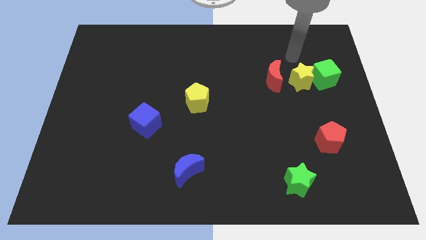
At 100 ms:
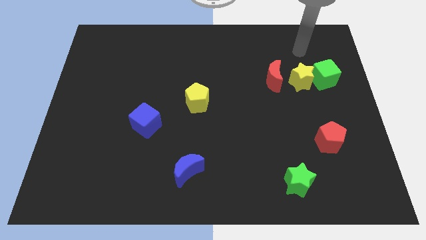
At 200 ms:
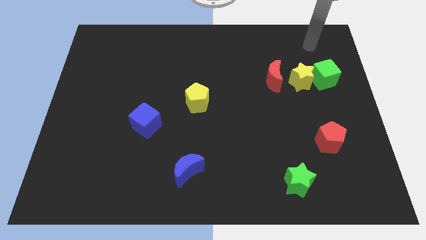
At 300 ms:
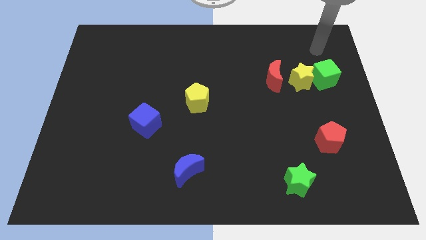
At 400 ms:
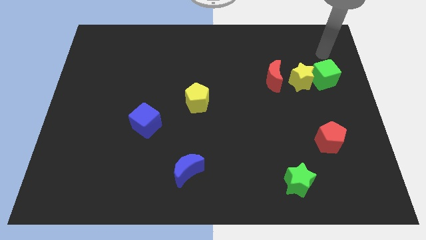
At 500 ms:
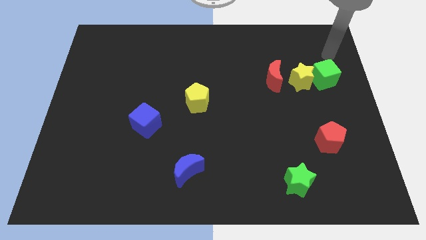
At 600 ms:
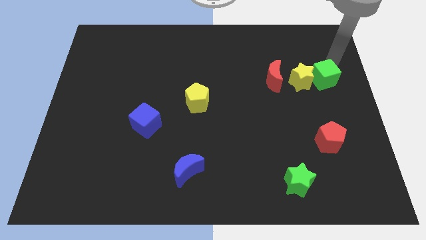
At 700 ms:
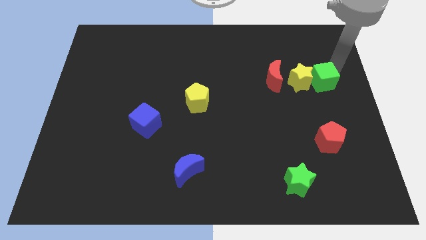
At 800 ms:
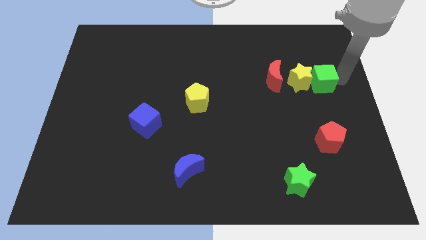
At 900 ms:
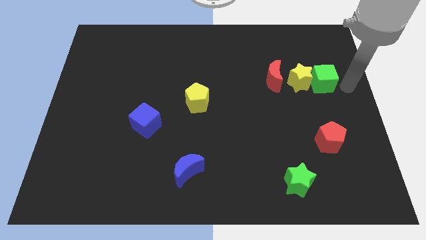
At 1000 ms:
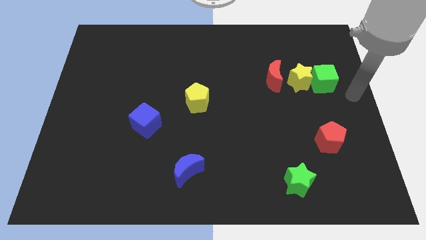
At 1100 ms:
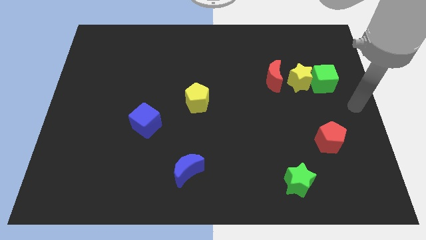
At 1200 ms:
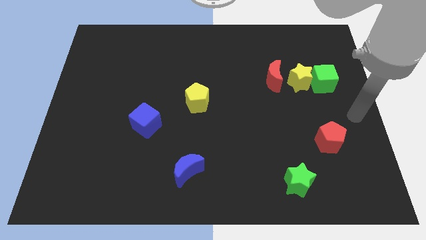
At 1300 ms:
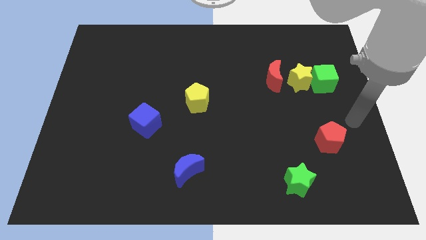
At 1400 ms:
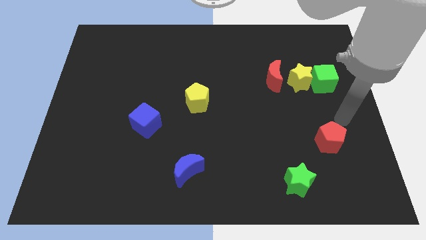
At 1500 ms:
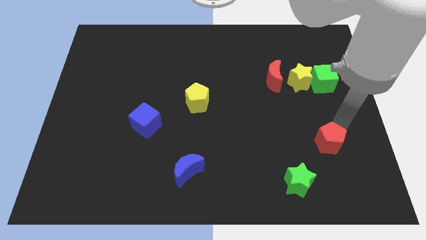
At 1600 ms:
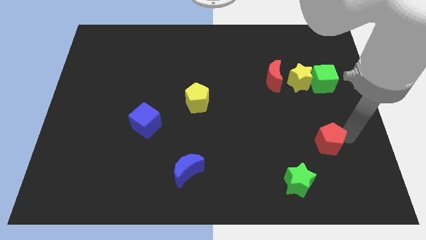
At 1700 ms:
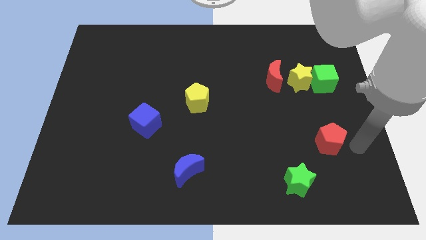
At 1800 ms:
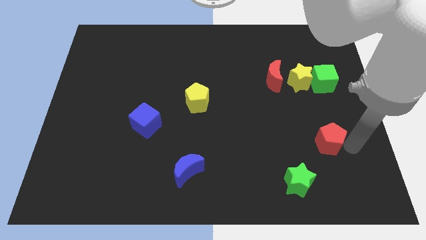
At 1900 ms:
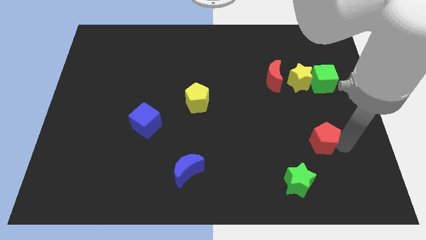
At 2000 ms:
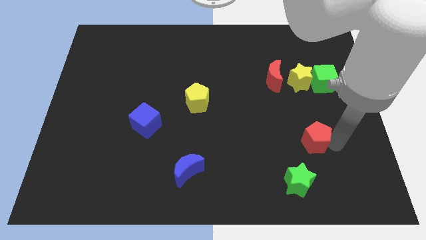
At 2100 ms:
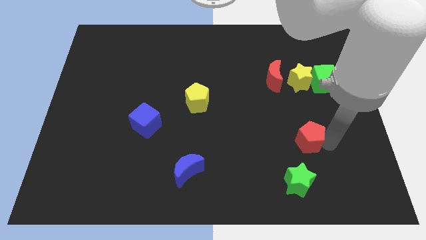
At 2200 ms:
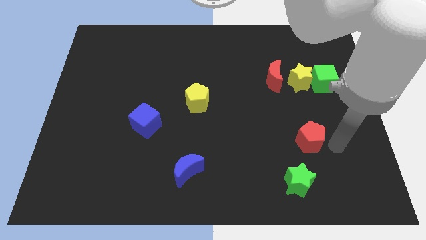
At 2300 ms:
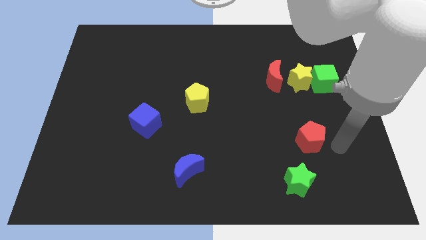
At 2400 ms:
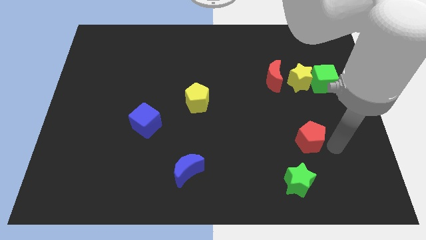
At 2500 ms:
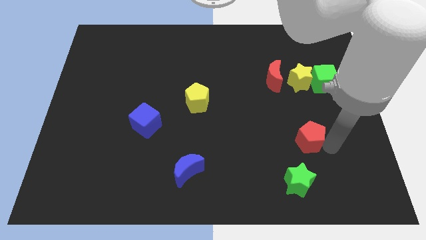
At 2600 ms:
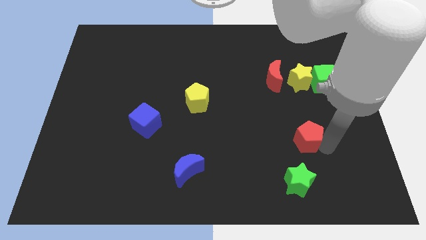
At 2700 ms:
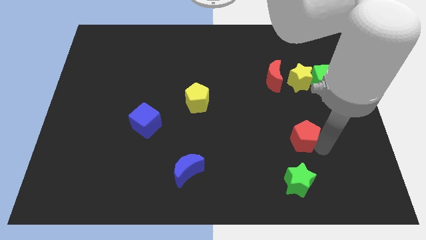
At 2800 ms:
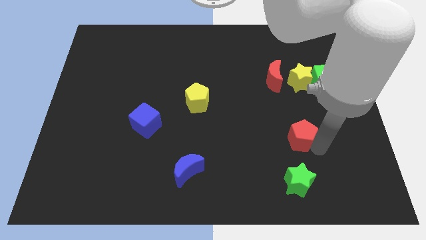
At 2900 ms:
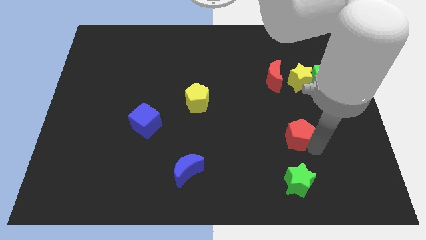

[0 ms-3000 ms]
move the red pentagon slightly to the left

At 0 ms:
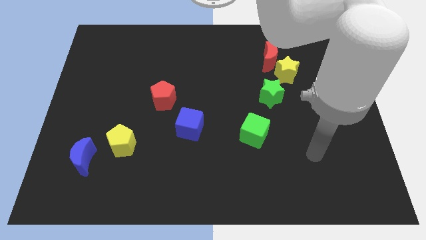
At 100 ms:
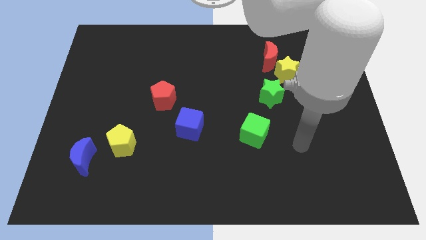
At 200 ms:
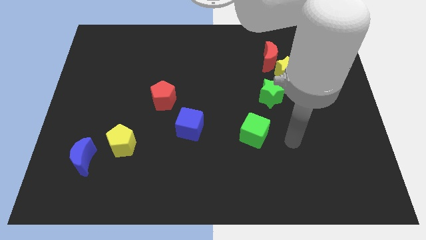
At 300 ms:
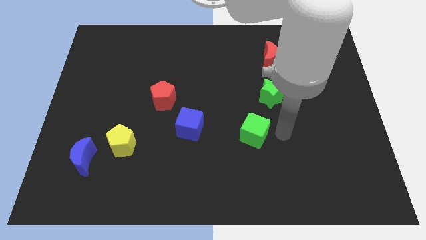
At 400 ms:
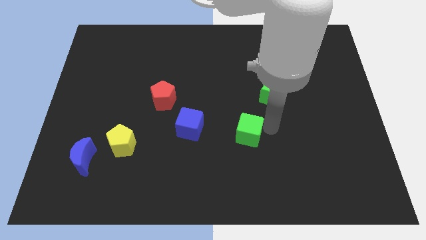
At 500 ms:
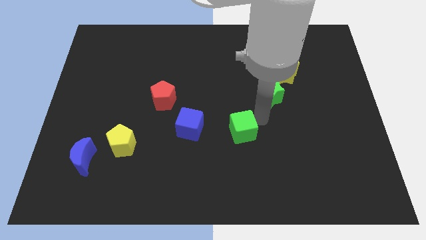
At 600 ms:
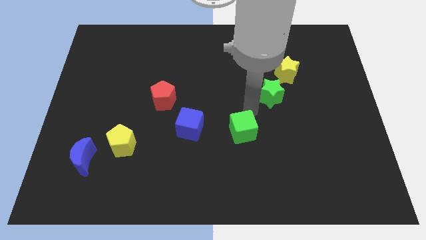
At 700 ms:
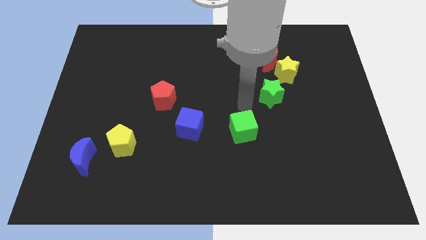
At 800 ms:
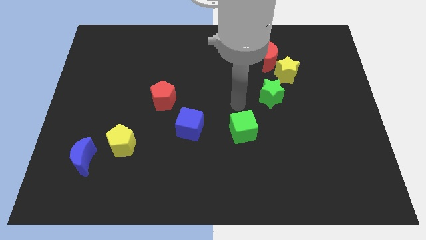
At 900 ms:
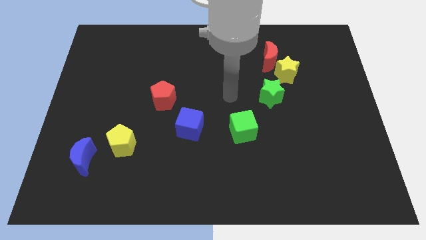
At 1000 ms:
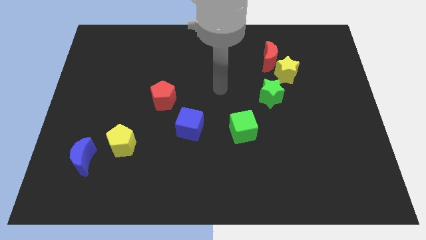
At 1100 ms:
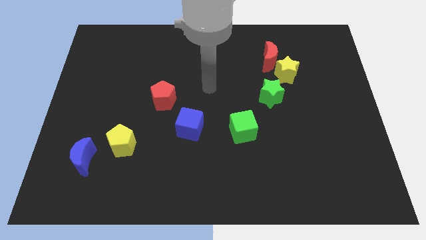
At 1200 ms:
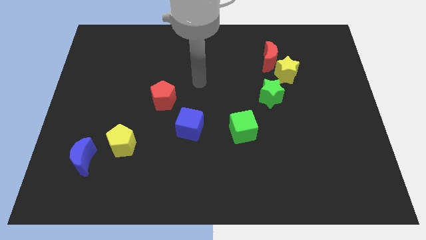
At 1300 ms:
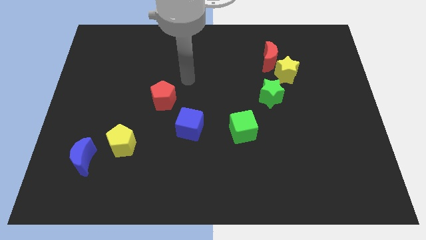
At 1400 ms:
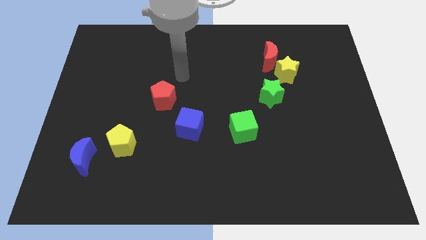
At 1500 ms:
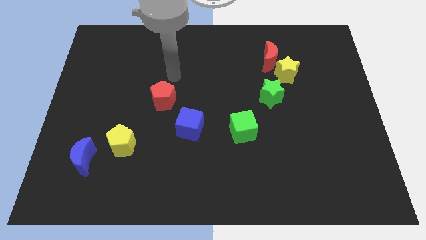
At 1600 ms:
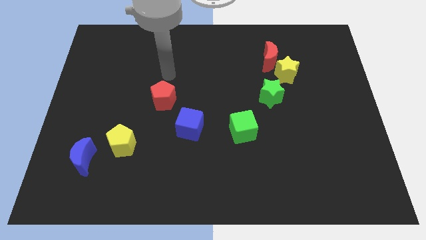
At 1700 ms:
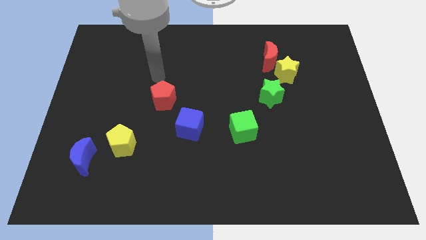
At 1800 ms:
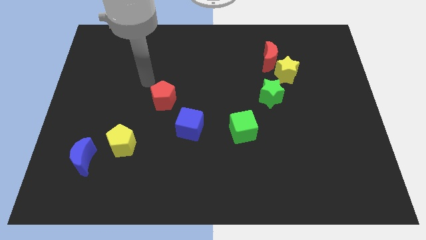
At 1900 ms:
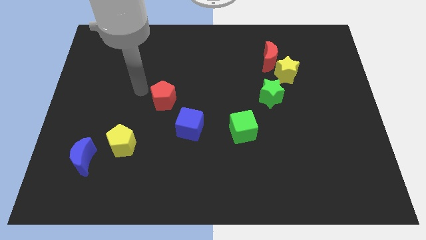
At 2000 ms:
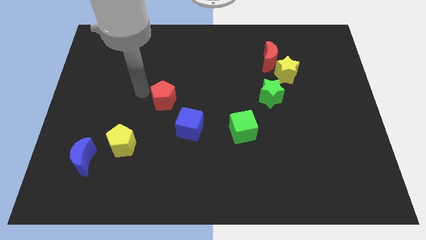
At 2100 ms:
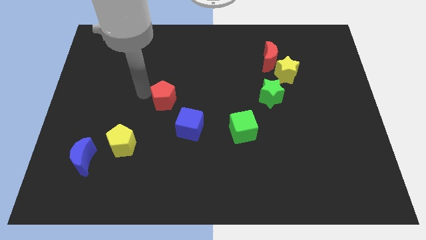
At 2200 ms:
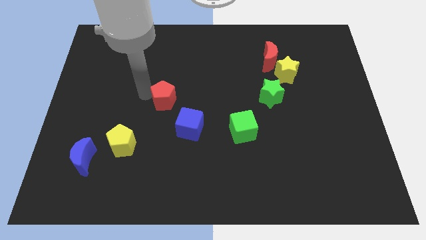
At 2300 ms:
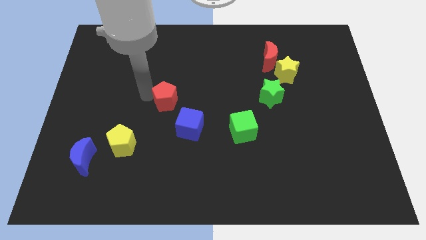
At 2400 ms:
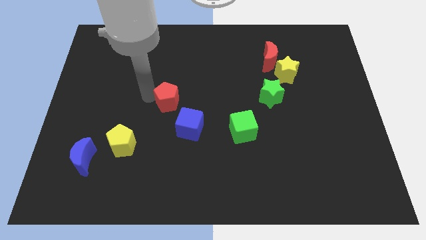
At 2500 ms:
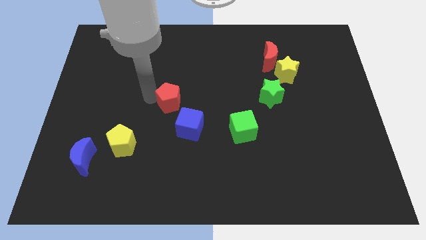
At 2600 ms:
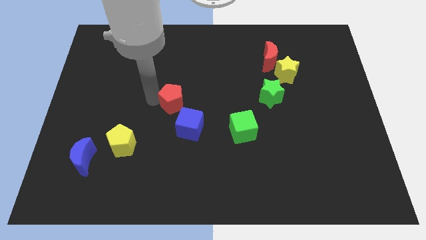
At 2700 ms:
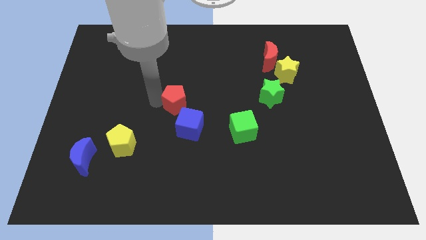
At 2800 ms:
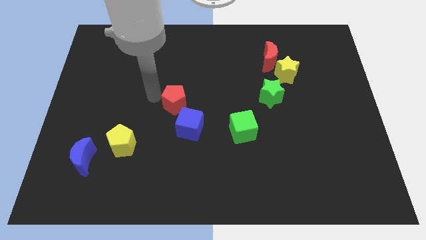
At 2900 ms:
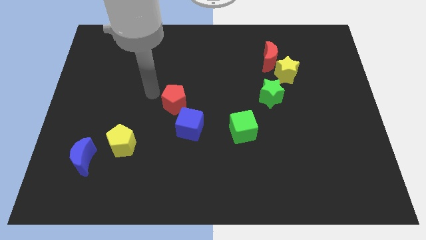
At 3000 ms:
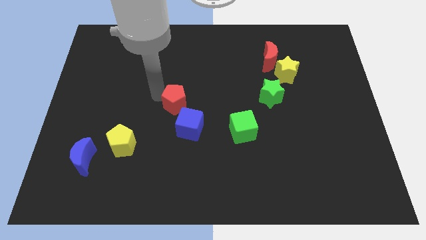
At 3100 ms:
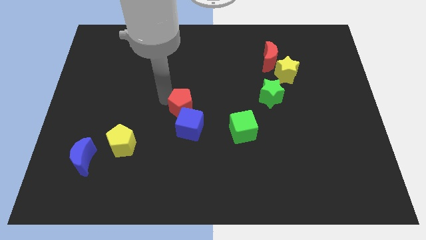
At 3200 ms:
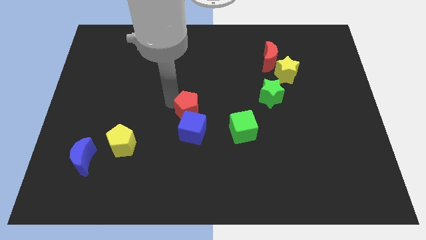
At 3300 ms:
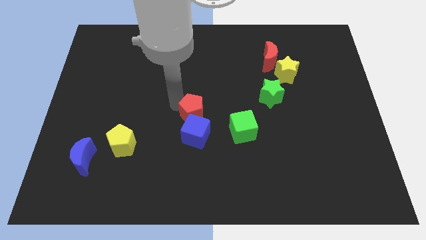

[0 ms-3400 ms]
push the red pentagon diagonally down and to the right a little bit

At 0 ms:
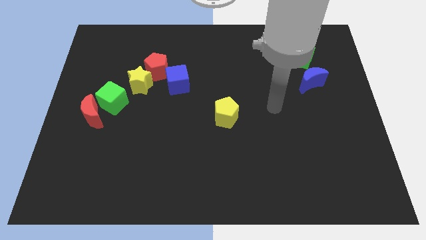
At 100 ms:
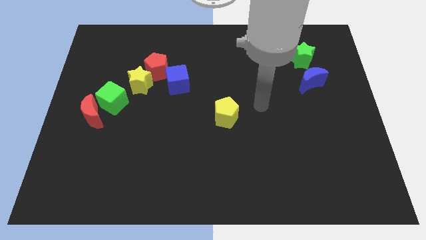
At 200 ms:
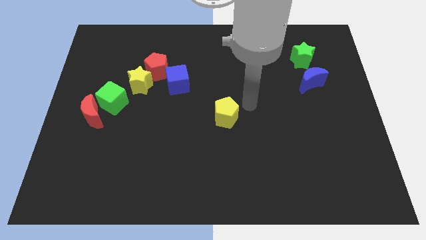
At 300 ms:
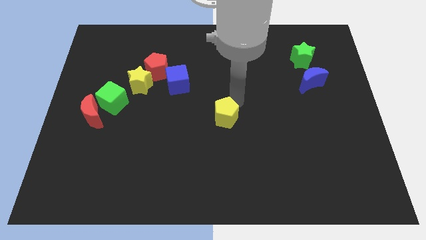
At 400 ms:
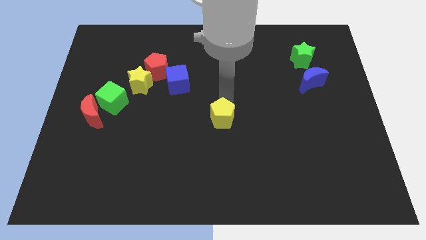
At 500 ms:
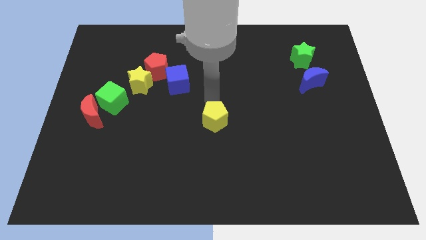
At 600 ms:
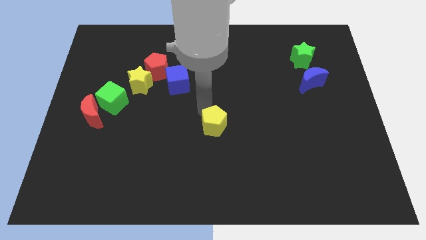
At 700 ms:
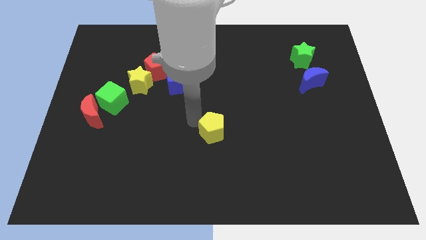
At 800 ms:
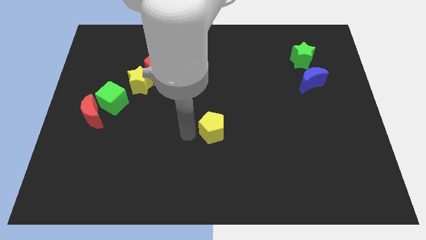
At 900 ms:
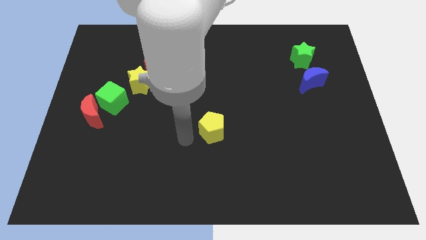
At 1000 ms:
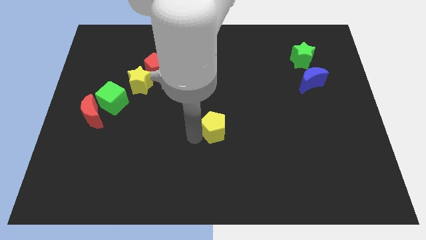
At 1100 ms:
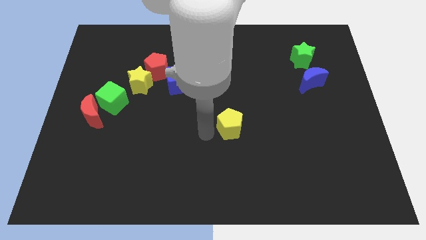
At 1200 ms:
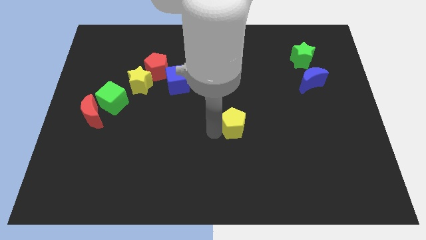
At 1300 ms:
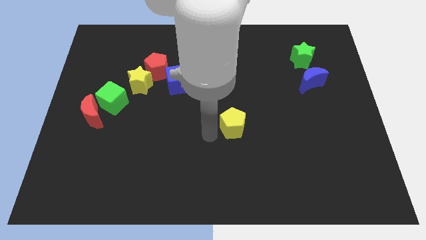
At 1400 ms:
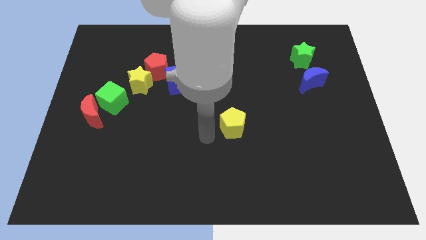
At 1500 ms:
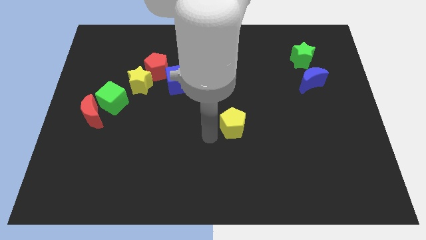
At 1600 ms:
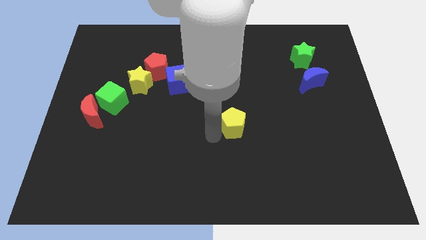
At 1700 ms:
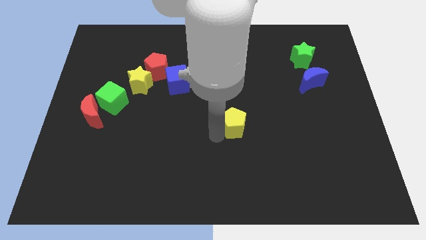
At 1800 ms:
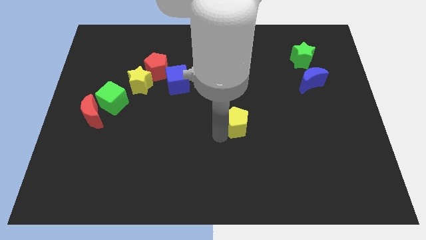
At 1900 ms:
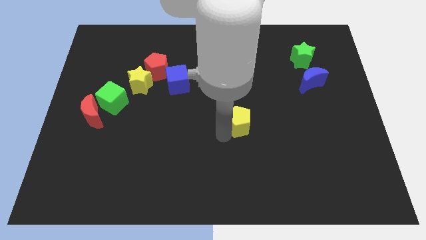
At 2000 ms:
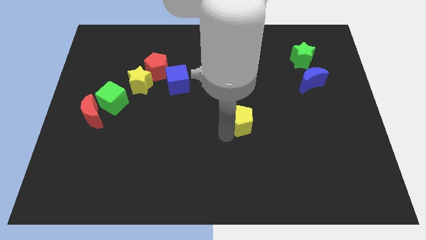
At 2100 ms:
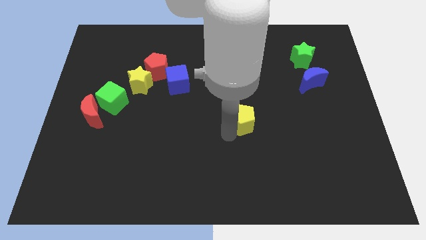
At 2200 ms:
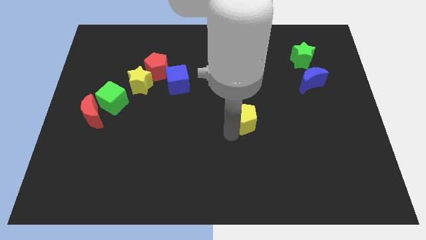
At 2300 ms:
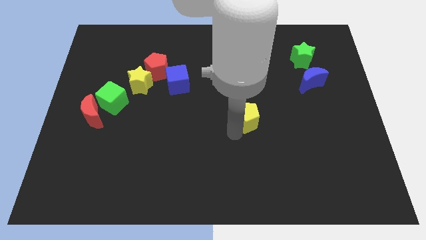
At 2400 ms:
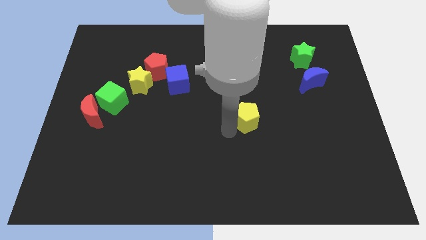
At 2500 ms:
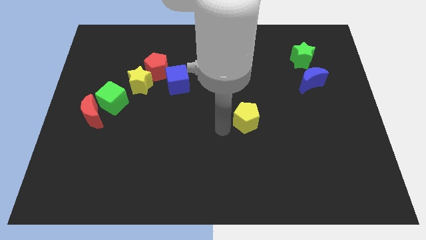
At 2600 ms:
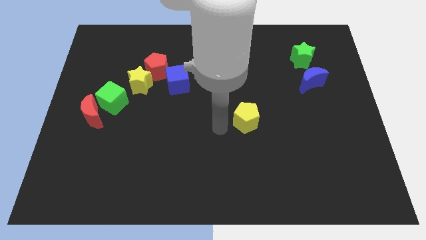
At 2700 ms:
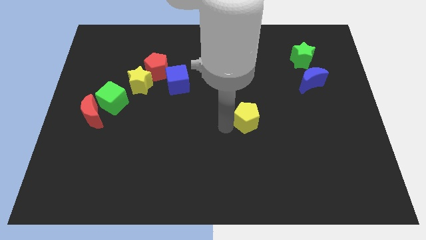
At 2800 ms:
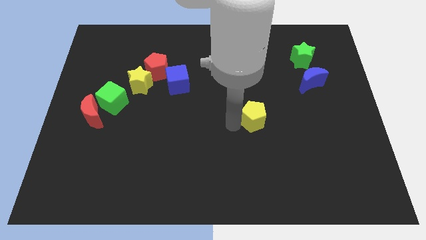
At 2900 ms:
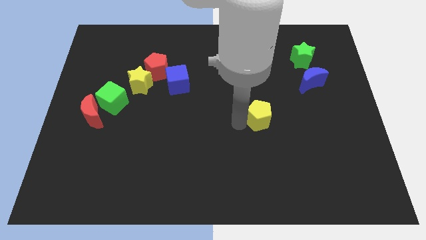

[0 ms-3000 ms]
slightly push the yellow pentagon right
